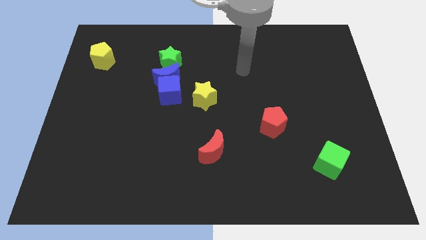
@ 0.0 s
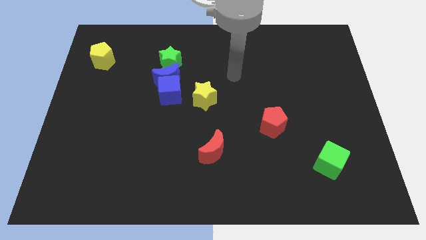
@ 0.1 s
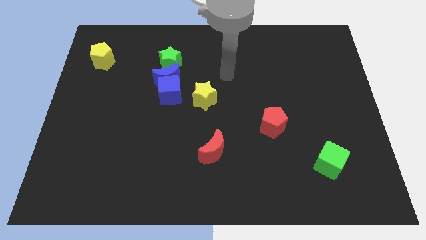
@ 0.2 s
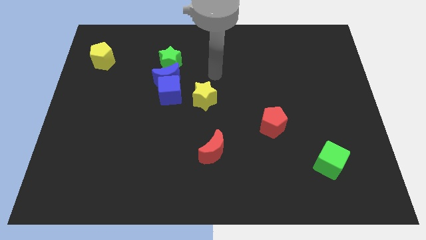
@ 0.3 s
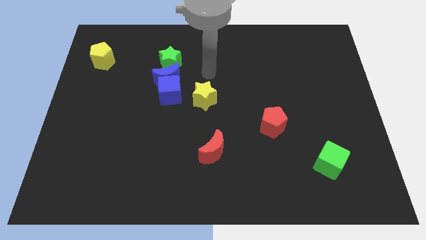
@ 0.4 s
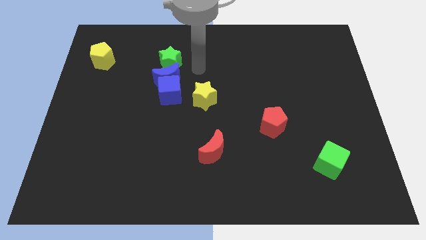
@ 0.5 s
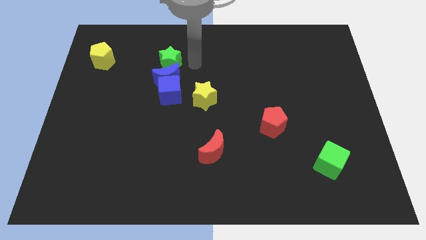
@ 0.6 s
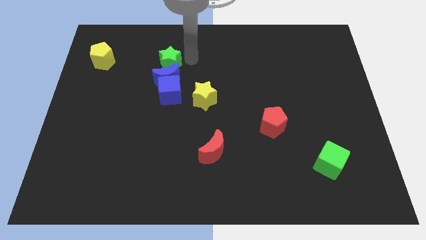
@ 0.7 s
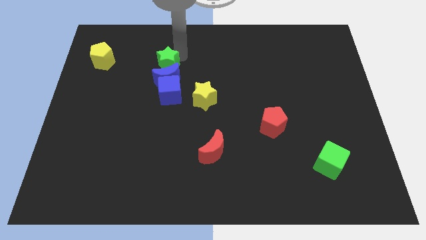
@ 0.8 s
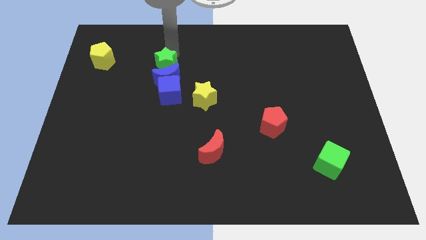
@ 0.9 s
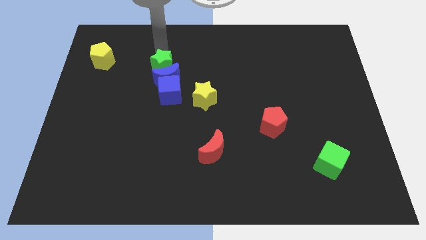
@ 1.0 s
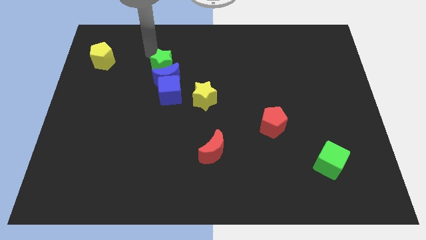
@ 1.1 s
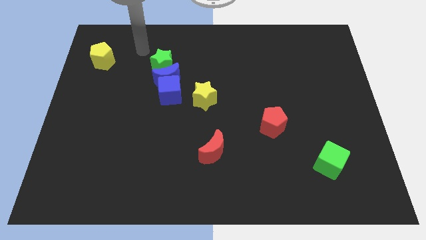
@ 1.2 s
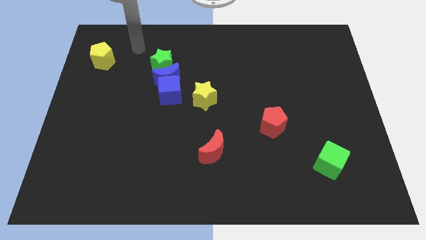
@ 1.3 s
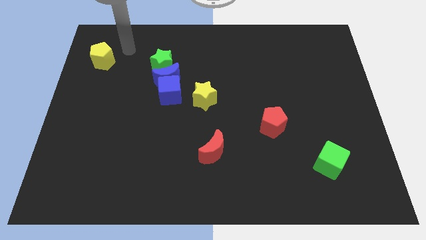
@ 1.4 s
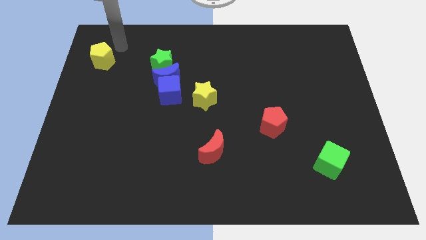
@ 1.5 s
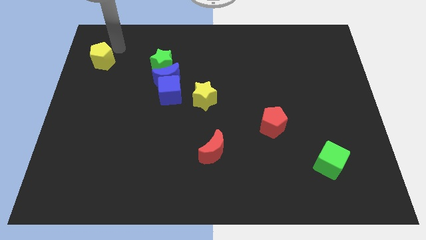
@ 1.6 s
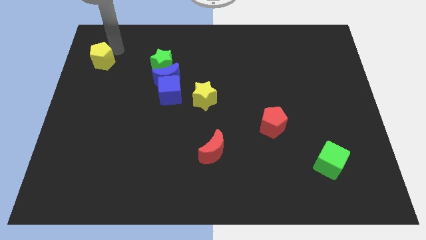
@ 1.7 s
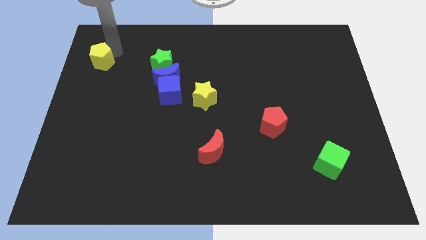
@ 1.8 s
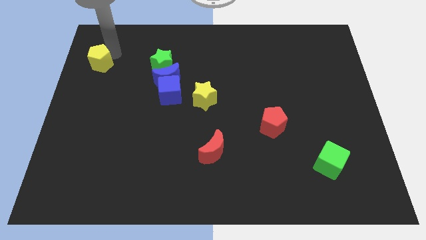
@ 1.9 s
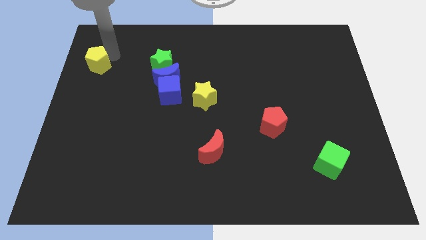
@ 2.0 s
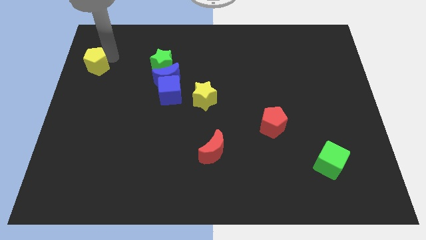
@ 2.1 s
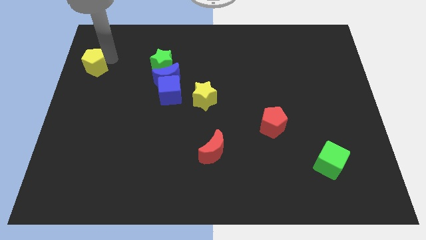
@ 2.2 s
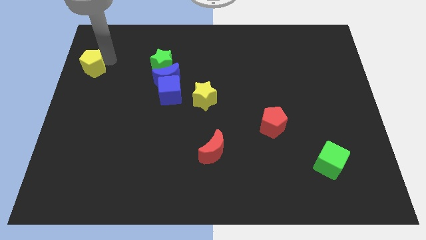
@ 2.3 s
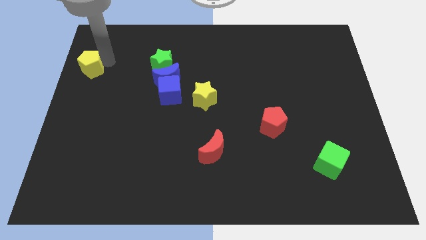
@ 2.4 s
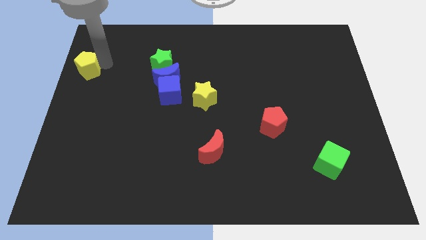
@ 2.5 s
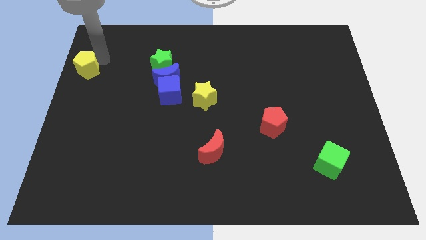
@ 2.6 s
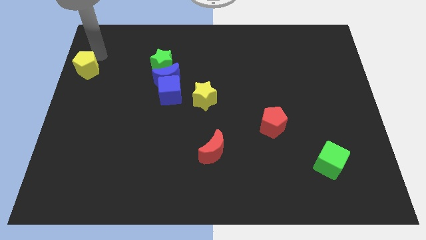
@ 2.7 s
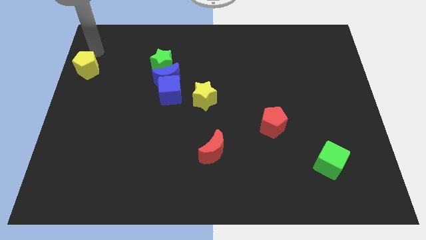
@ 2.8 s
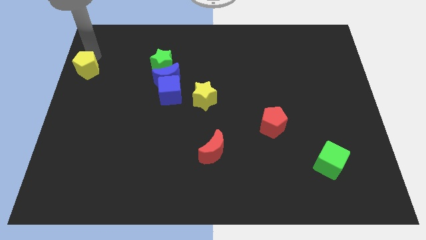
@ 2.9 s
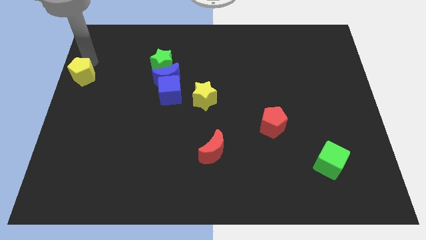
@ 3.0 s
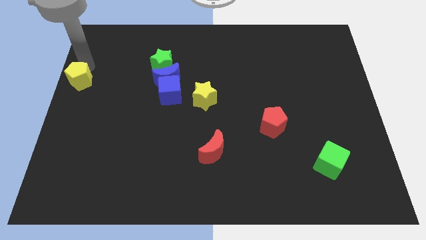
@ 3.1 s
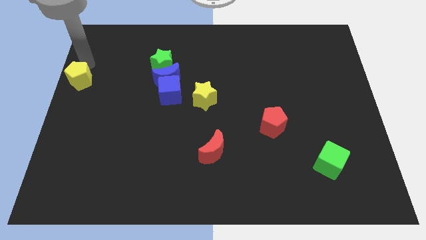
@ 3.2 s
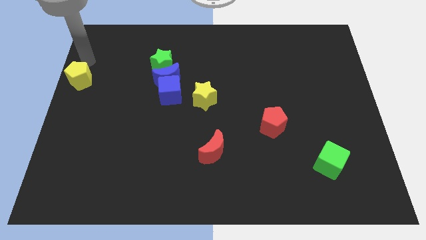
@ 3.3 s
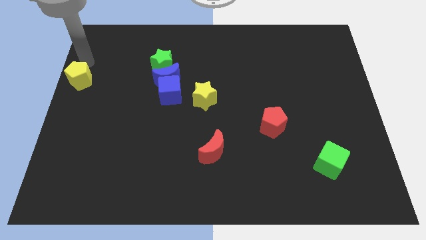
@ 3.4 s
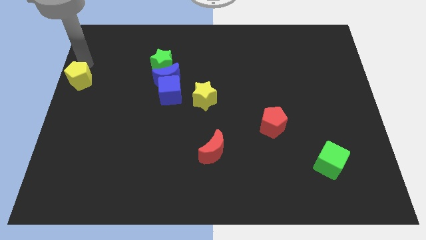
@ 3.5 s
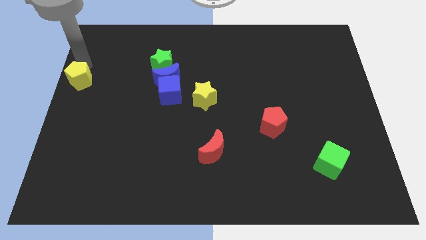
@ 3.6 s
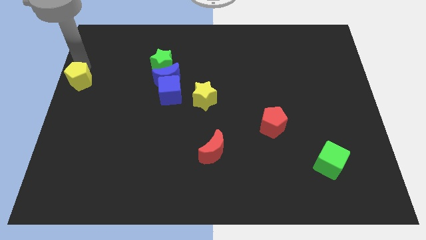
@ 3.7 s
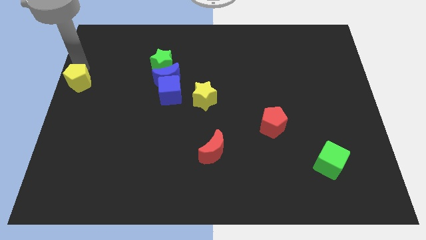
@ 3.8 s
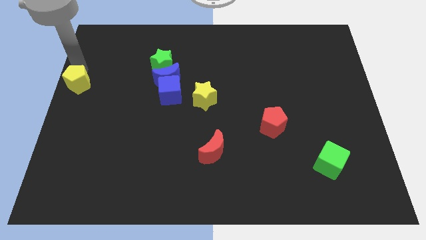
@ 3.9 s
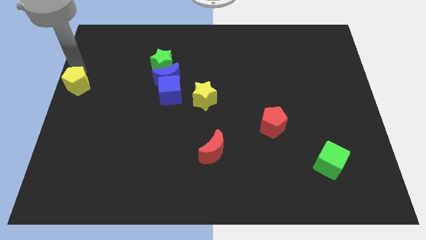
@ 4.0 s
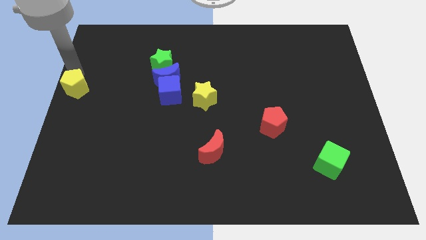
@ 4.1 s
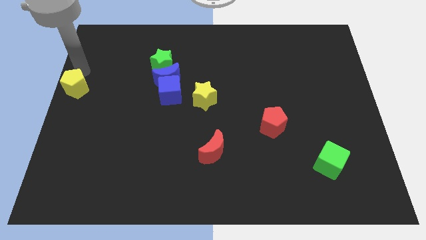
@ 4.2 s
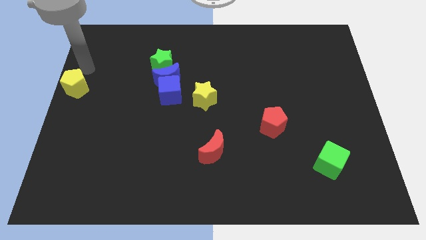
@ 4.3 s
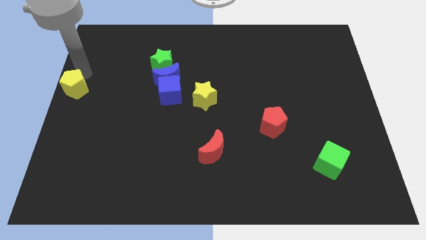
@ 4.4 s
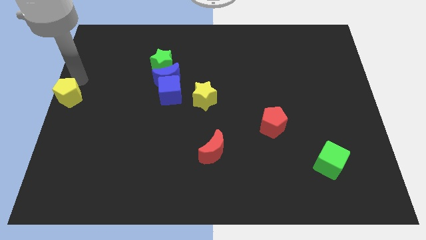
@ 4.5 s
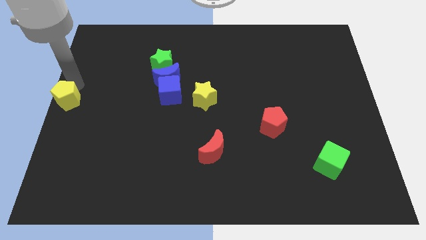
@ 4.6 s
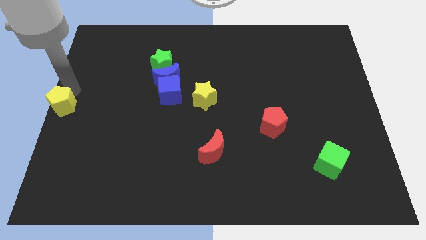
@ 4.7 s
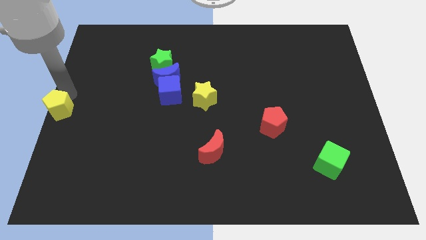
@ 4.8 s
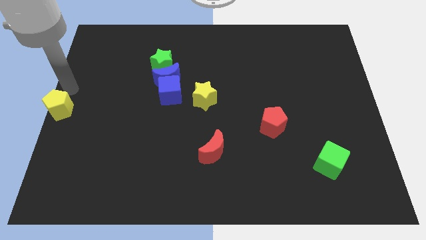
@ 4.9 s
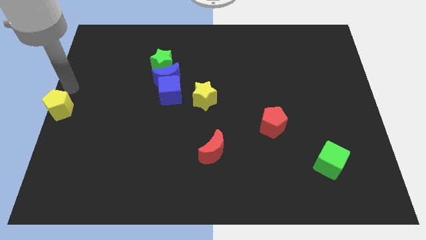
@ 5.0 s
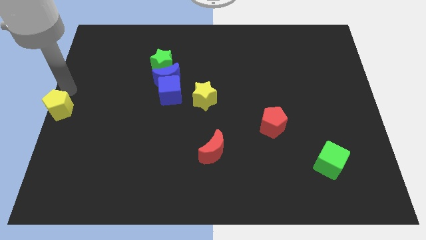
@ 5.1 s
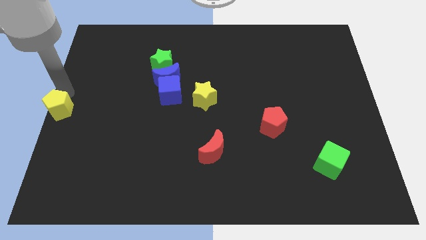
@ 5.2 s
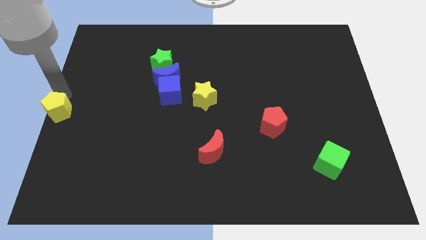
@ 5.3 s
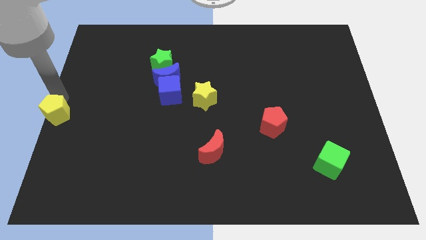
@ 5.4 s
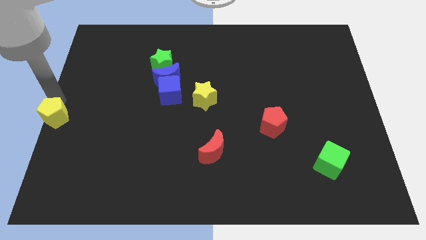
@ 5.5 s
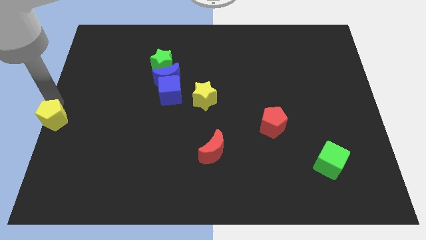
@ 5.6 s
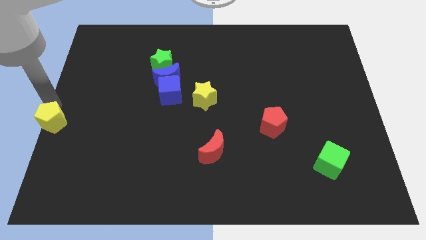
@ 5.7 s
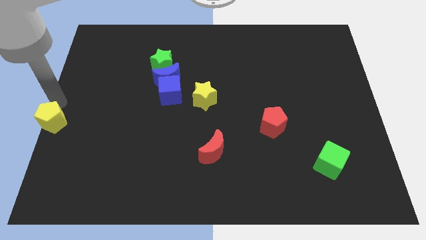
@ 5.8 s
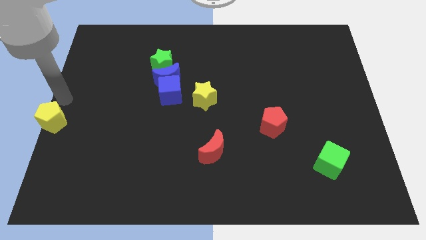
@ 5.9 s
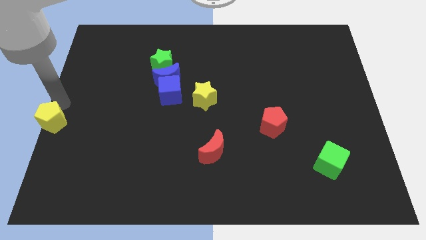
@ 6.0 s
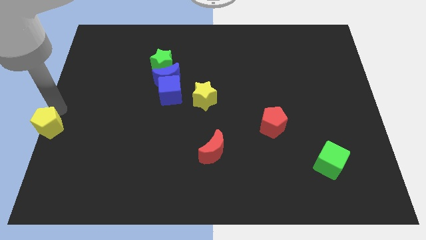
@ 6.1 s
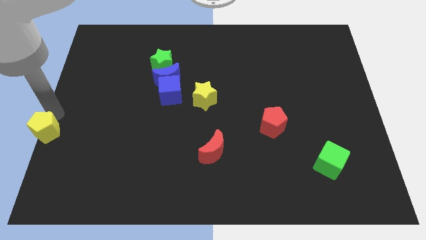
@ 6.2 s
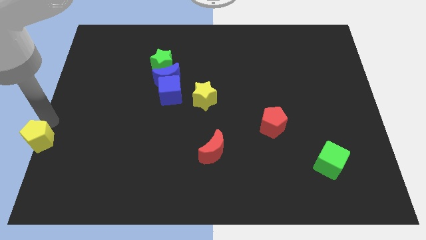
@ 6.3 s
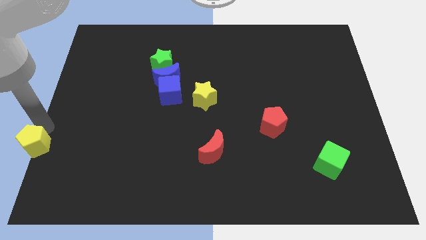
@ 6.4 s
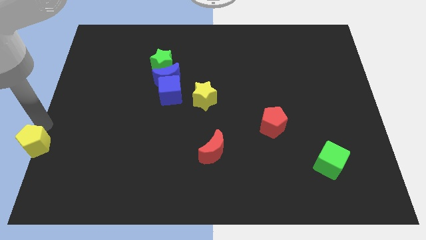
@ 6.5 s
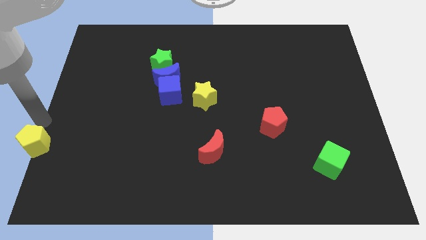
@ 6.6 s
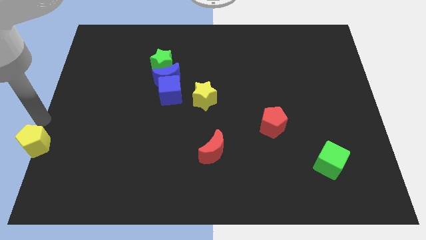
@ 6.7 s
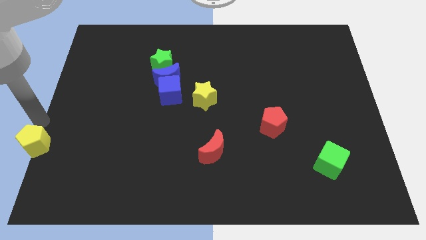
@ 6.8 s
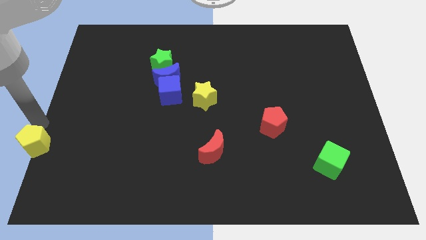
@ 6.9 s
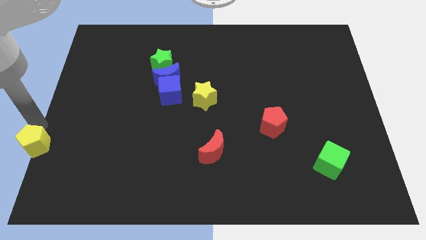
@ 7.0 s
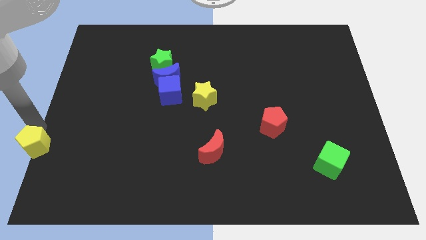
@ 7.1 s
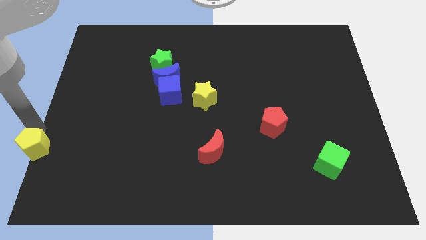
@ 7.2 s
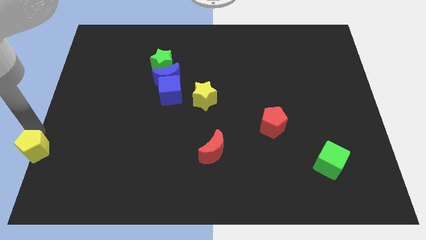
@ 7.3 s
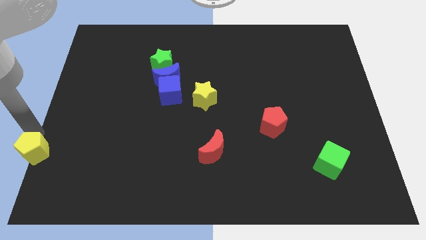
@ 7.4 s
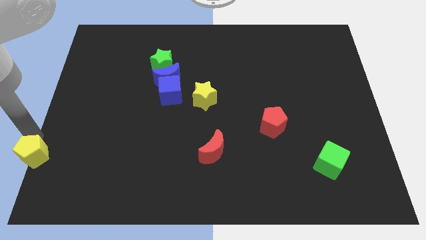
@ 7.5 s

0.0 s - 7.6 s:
slide the yellow pentagon to the lower left corner
